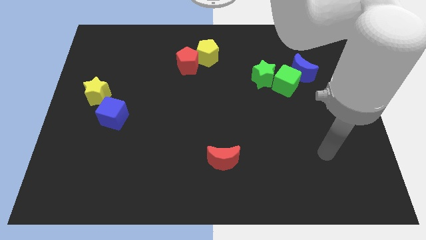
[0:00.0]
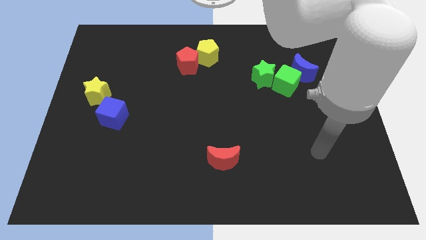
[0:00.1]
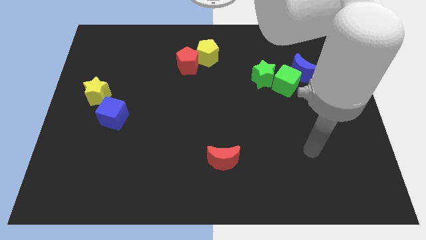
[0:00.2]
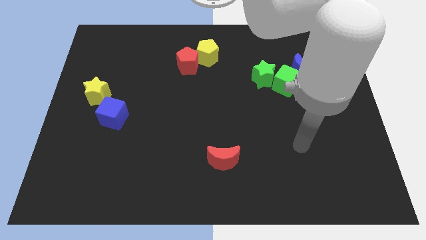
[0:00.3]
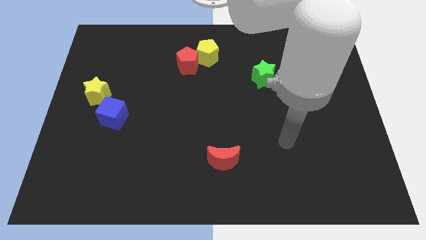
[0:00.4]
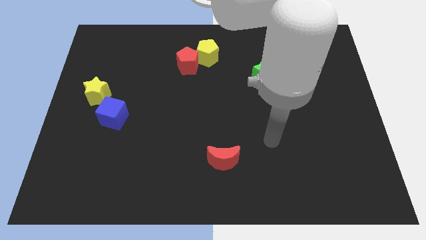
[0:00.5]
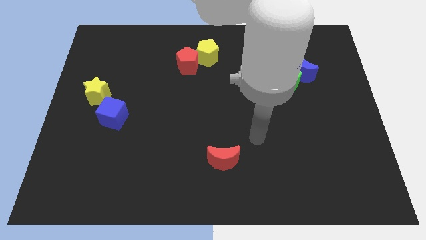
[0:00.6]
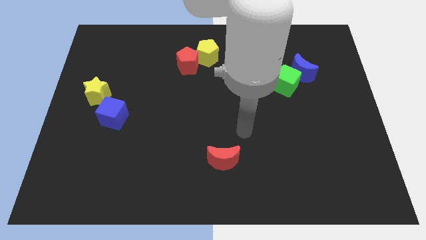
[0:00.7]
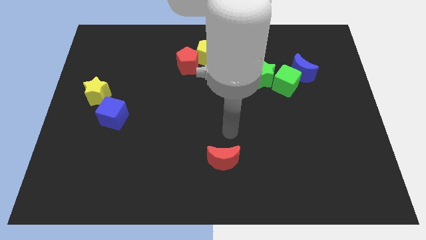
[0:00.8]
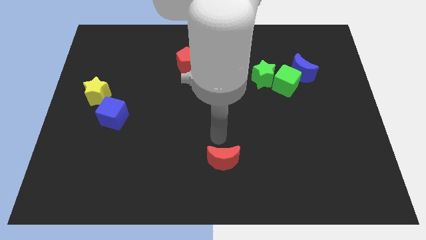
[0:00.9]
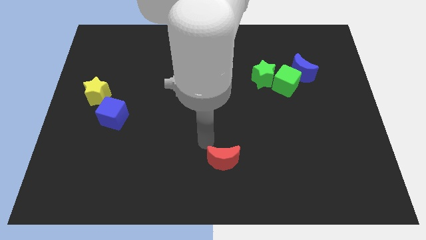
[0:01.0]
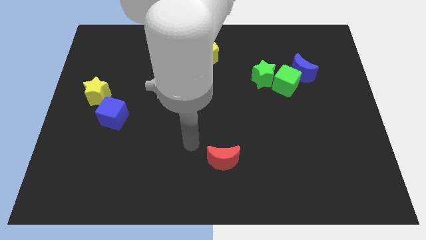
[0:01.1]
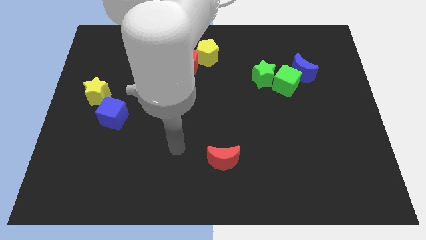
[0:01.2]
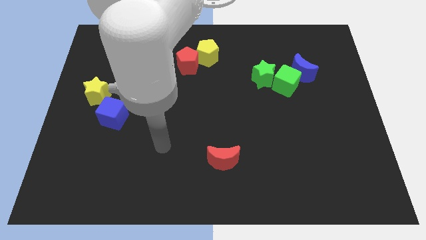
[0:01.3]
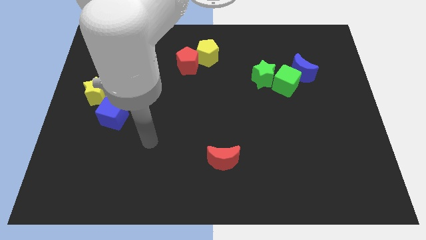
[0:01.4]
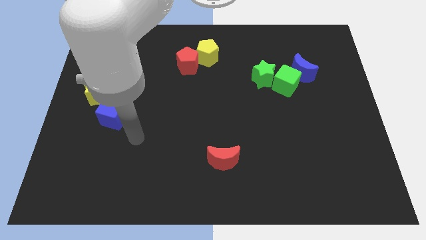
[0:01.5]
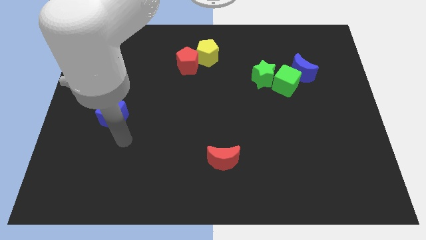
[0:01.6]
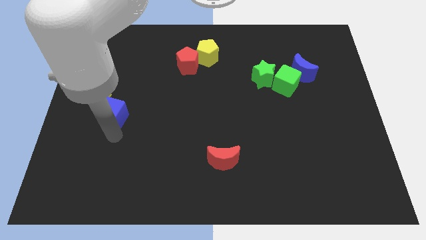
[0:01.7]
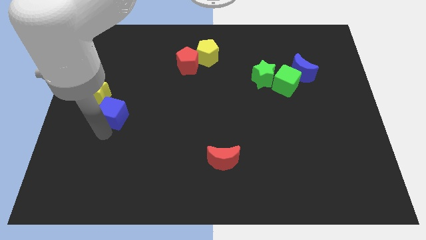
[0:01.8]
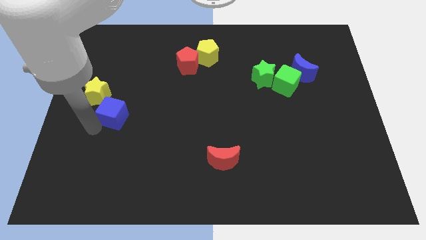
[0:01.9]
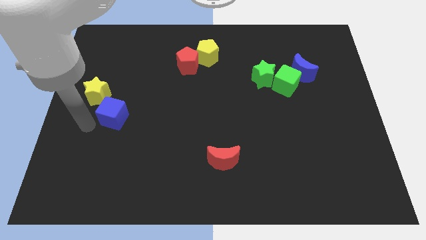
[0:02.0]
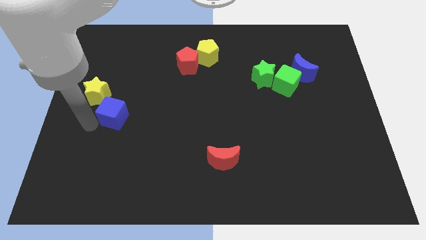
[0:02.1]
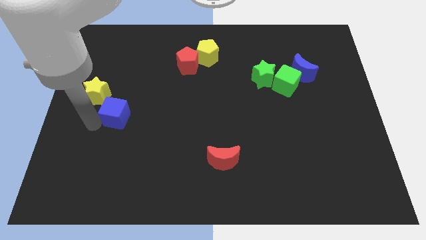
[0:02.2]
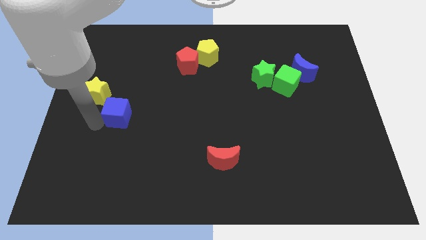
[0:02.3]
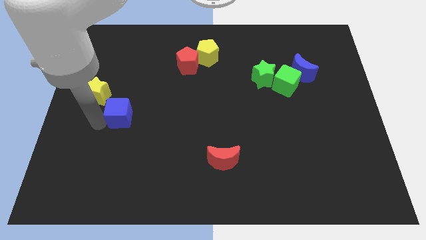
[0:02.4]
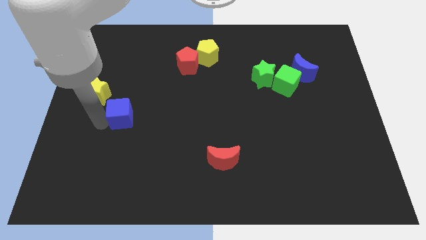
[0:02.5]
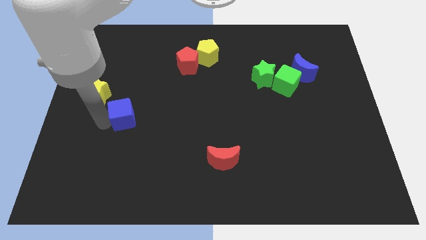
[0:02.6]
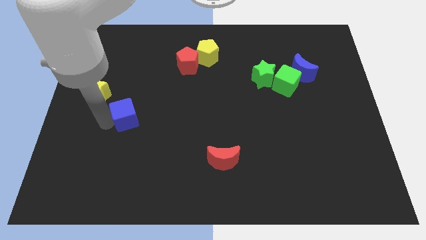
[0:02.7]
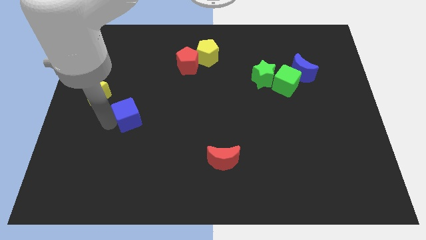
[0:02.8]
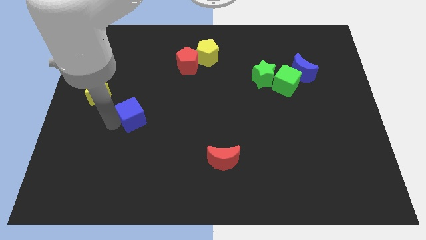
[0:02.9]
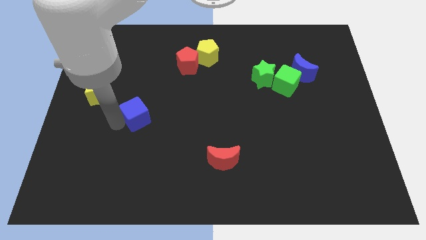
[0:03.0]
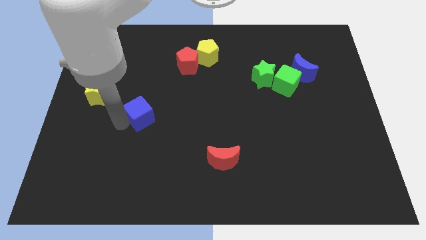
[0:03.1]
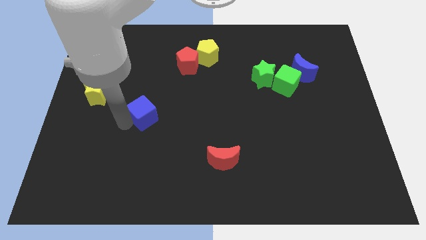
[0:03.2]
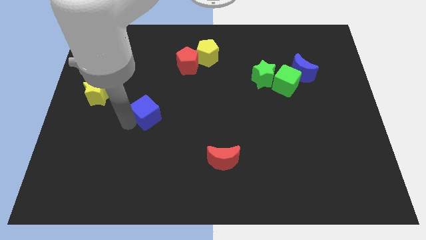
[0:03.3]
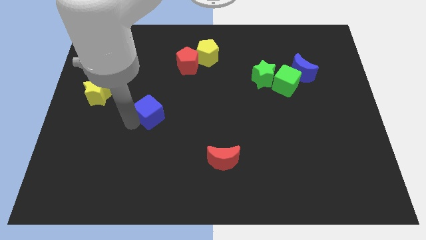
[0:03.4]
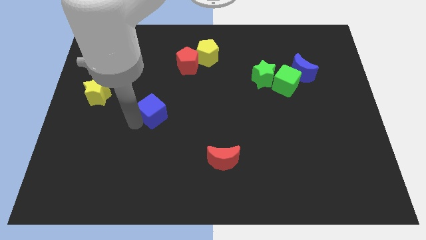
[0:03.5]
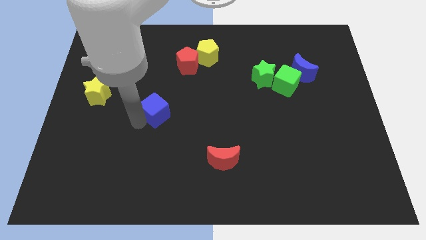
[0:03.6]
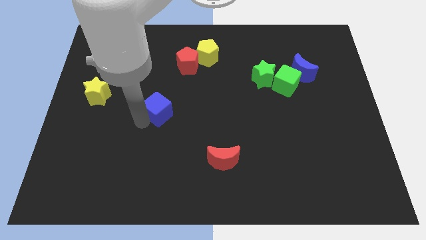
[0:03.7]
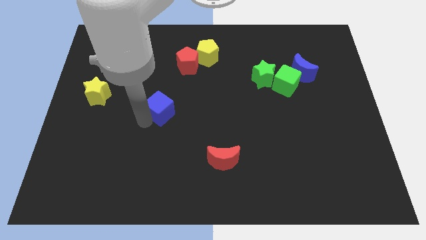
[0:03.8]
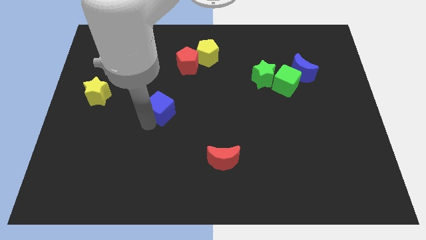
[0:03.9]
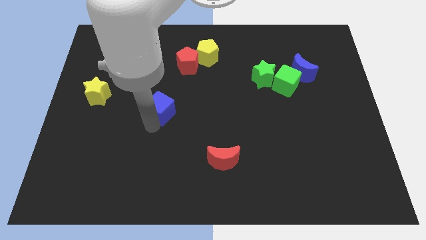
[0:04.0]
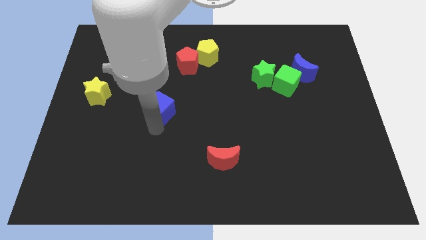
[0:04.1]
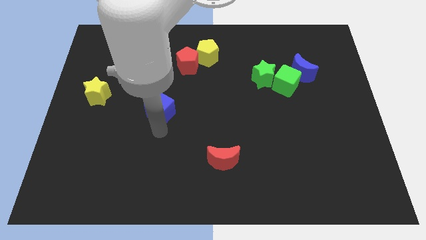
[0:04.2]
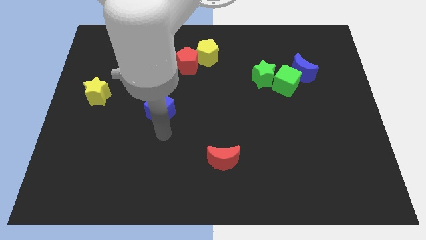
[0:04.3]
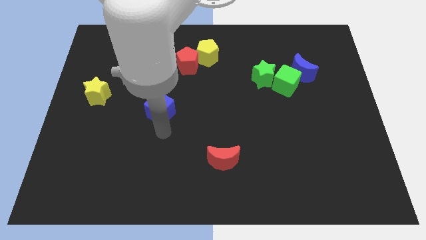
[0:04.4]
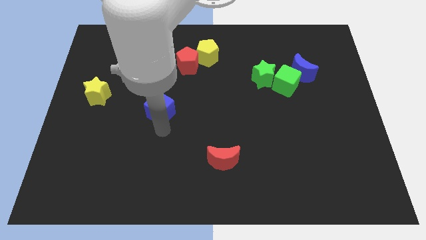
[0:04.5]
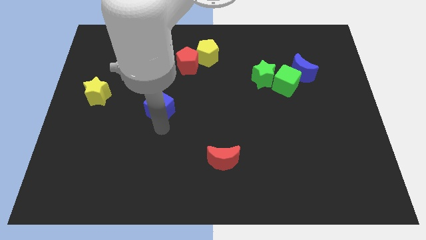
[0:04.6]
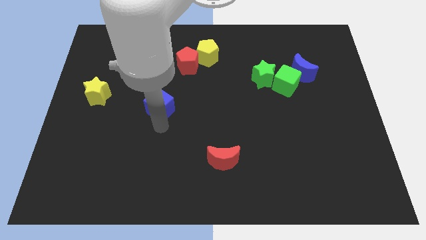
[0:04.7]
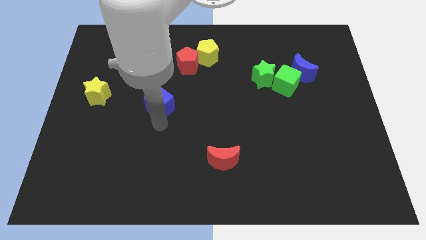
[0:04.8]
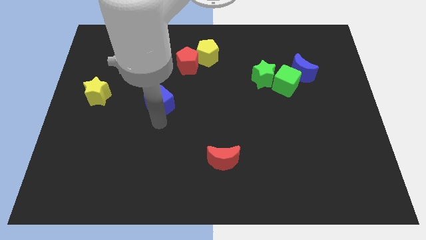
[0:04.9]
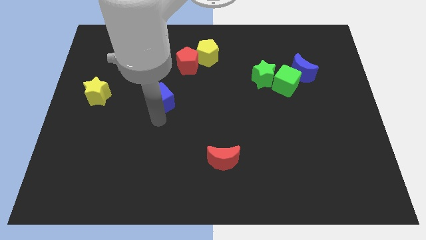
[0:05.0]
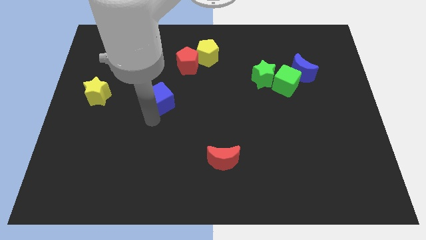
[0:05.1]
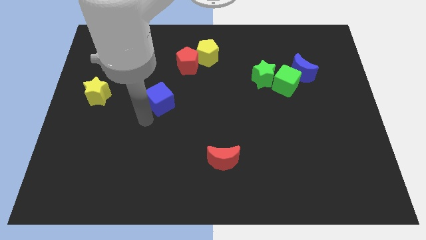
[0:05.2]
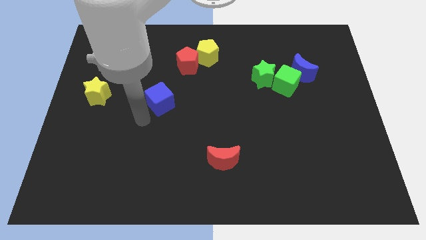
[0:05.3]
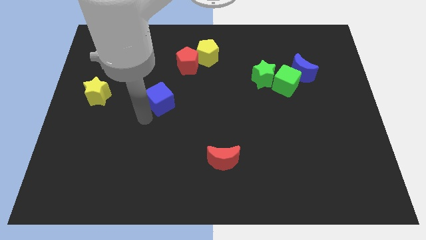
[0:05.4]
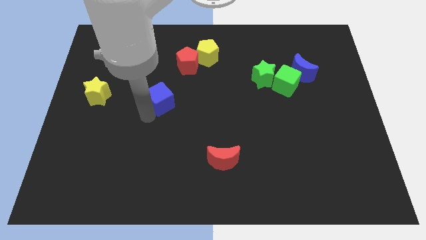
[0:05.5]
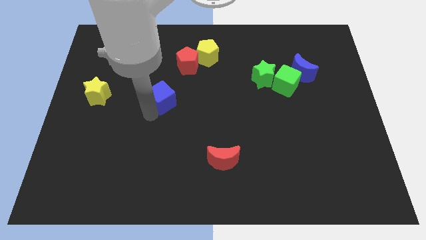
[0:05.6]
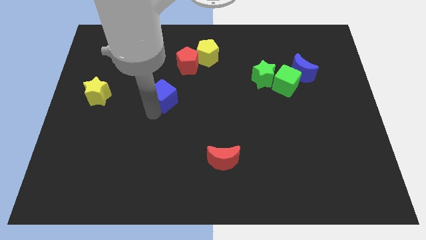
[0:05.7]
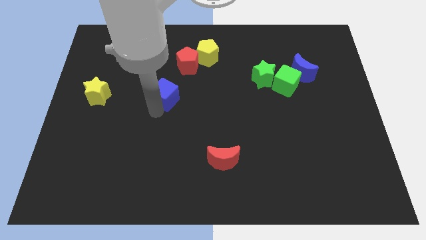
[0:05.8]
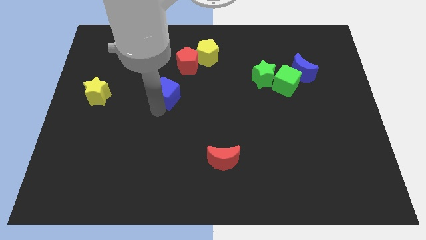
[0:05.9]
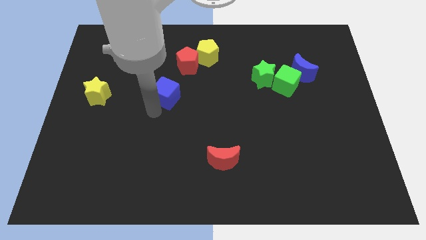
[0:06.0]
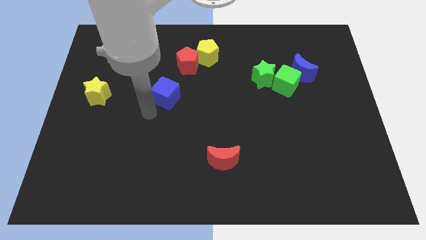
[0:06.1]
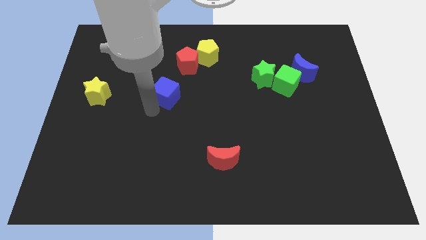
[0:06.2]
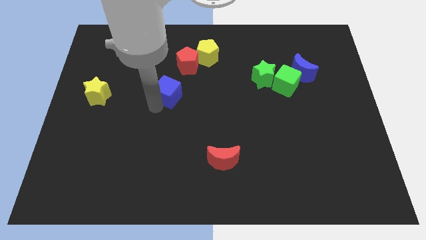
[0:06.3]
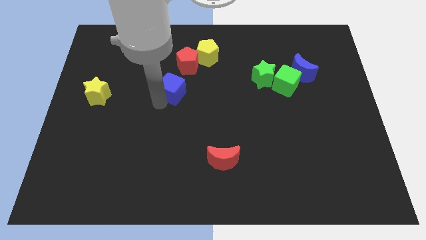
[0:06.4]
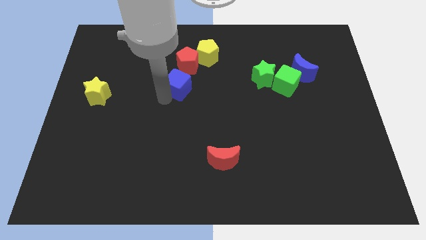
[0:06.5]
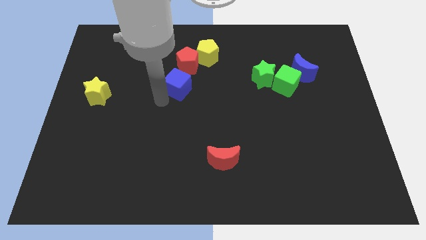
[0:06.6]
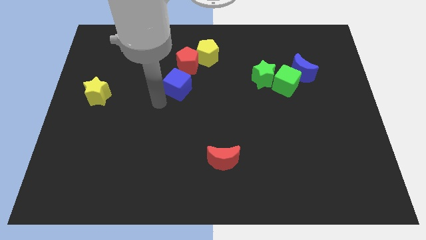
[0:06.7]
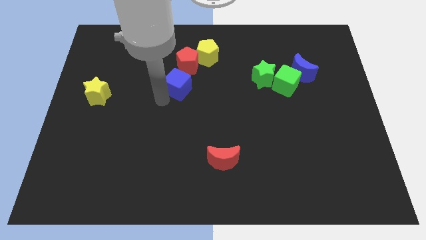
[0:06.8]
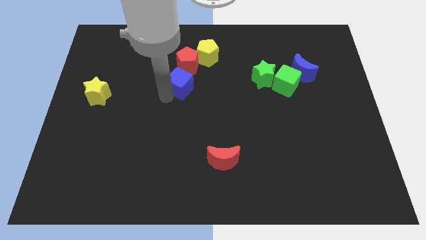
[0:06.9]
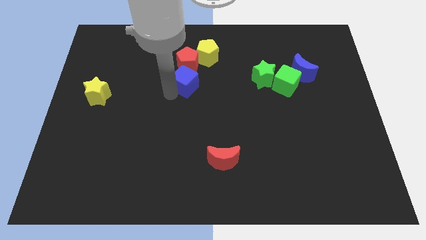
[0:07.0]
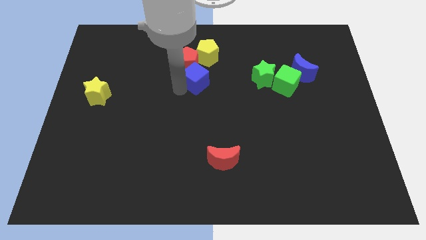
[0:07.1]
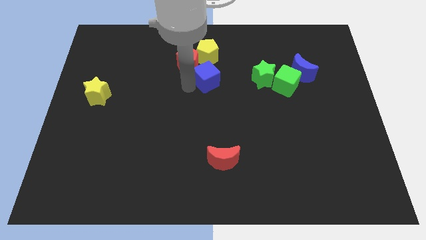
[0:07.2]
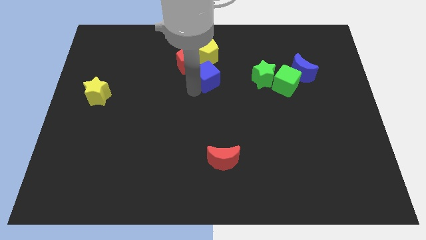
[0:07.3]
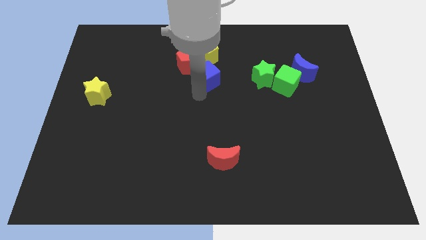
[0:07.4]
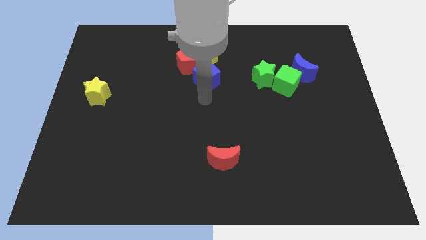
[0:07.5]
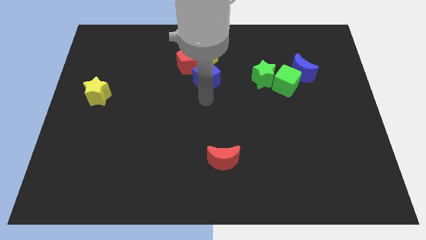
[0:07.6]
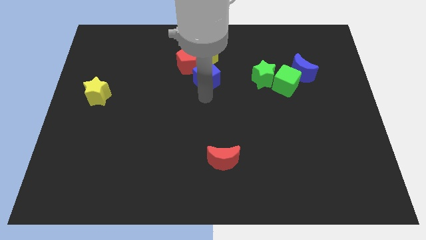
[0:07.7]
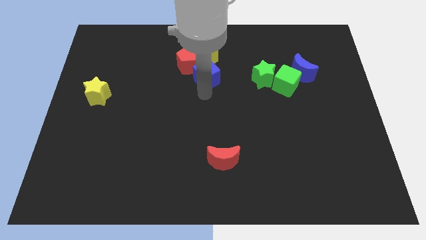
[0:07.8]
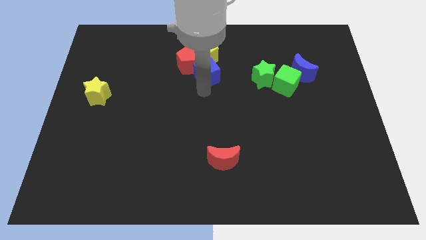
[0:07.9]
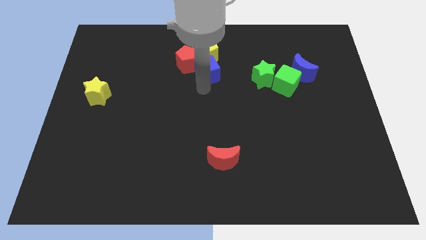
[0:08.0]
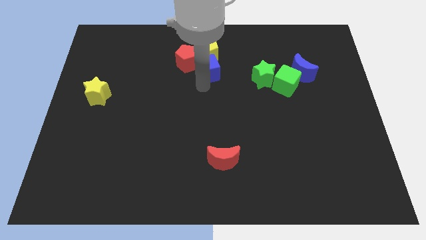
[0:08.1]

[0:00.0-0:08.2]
push the blue cube next to the yellow pentagon
